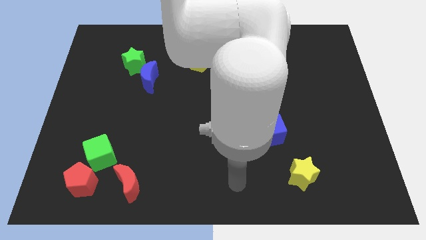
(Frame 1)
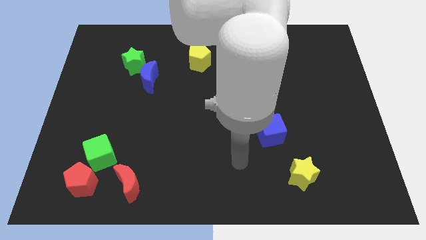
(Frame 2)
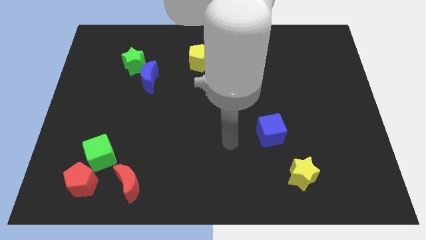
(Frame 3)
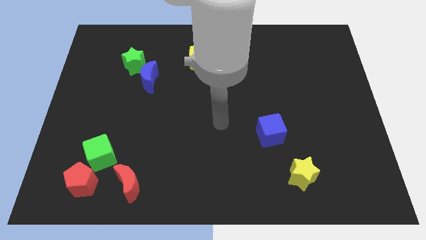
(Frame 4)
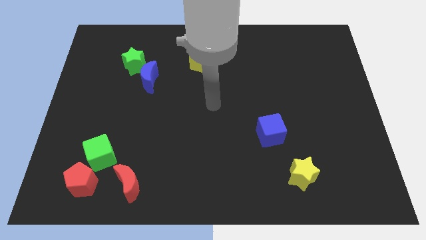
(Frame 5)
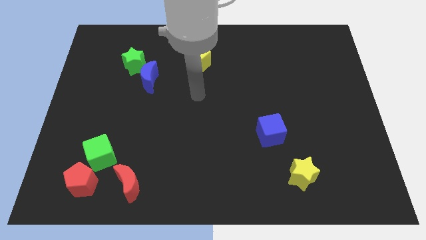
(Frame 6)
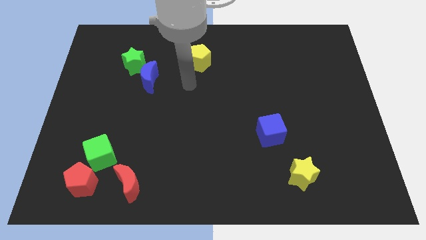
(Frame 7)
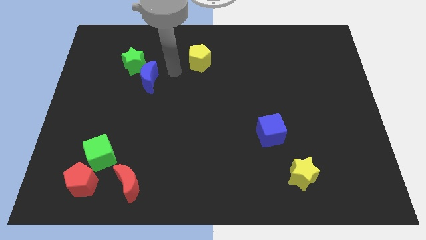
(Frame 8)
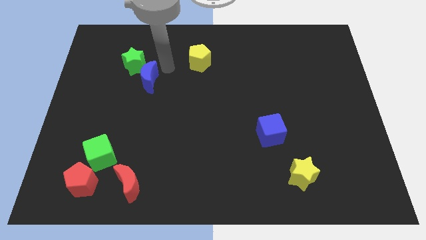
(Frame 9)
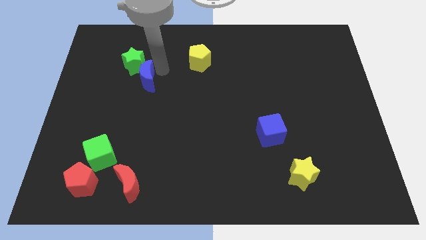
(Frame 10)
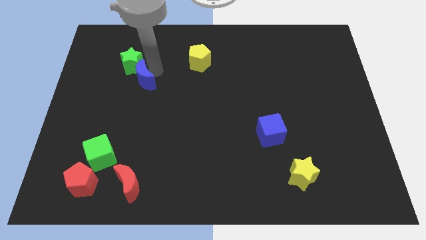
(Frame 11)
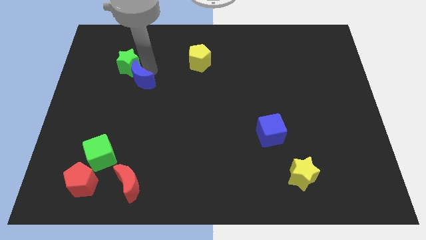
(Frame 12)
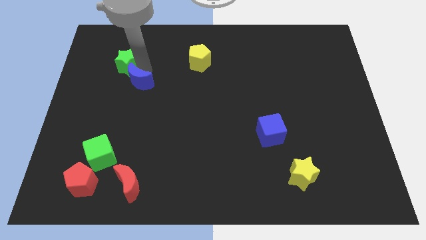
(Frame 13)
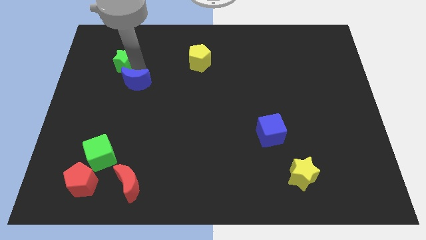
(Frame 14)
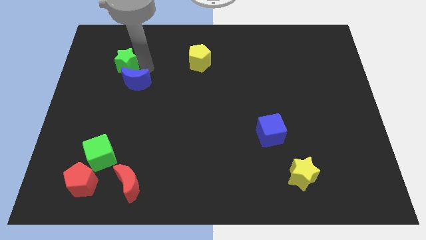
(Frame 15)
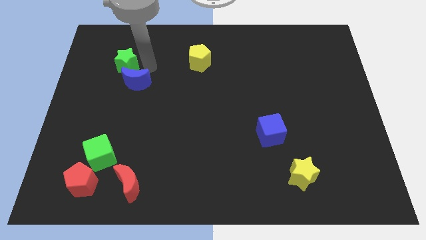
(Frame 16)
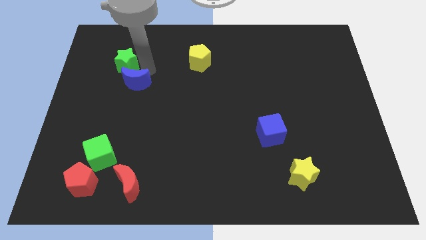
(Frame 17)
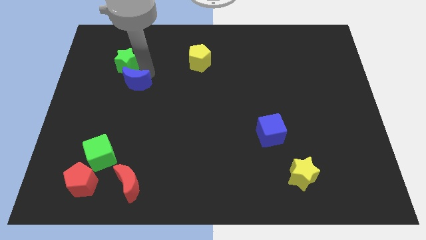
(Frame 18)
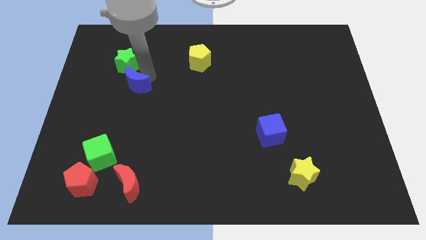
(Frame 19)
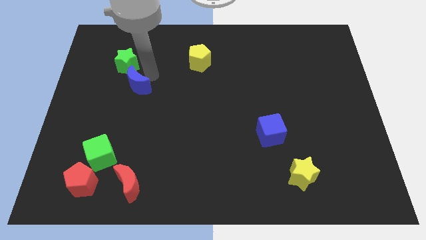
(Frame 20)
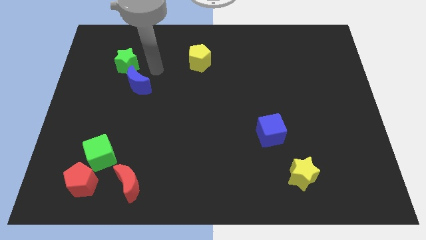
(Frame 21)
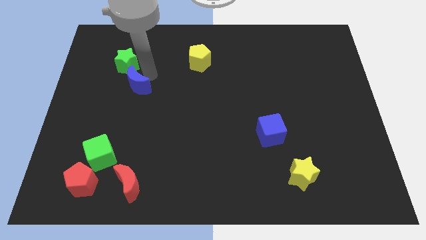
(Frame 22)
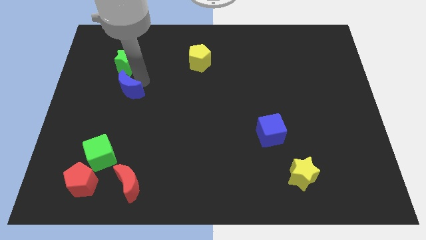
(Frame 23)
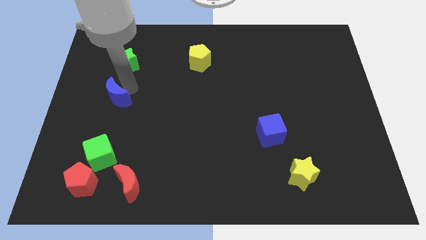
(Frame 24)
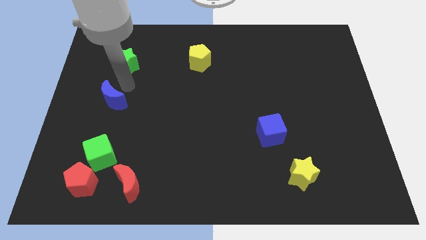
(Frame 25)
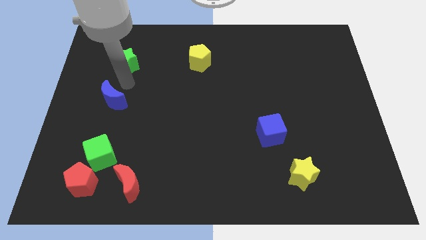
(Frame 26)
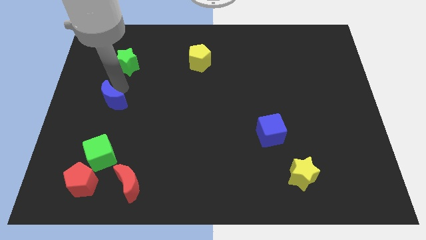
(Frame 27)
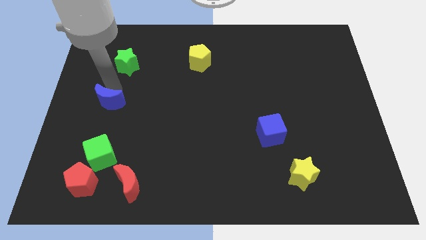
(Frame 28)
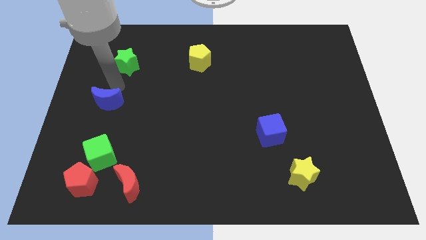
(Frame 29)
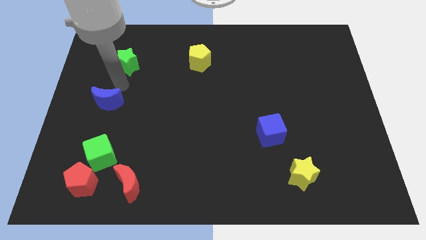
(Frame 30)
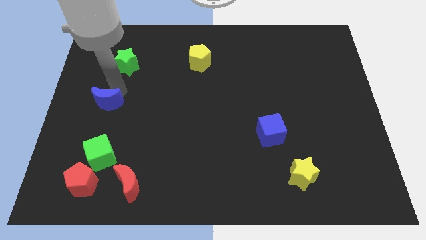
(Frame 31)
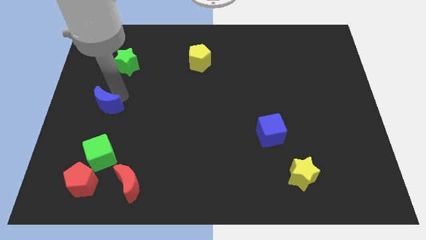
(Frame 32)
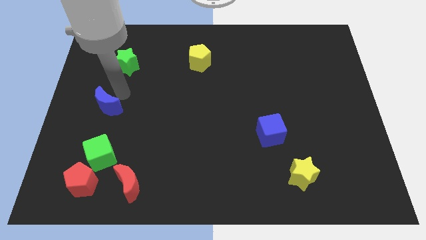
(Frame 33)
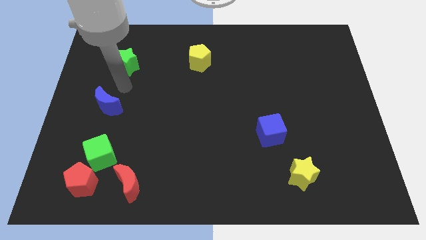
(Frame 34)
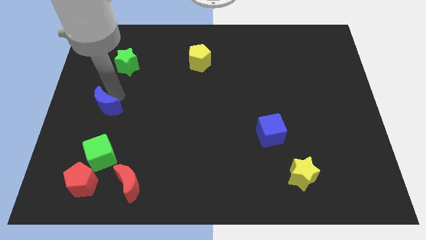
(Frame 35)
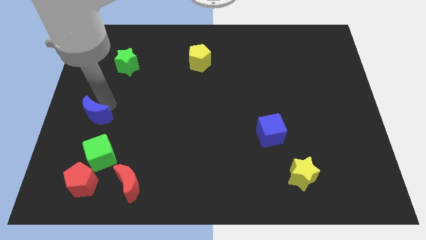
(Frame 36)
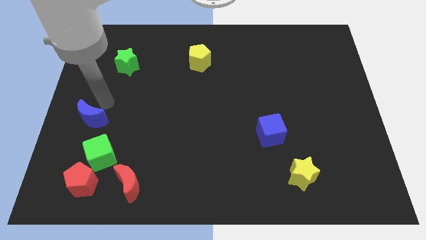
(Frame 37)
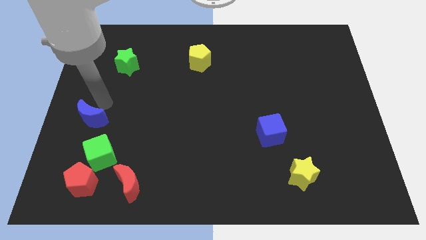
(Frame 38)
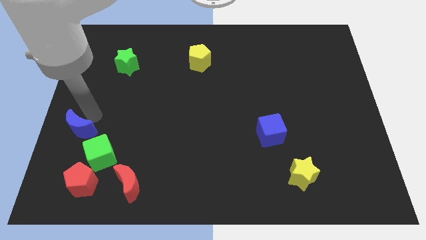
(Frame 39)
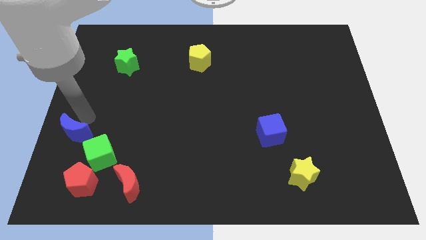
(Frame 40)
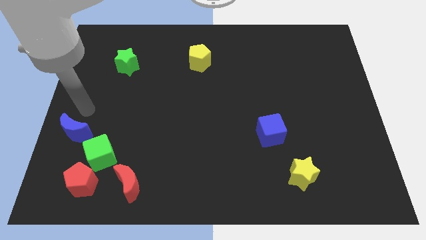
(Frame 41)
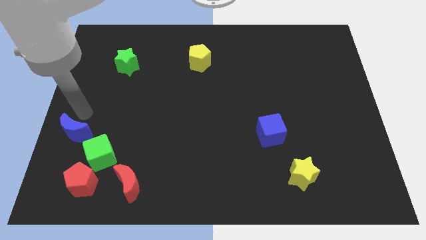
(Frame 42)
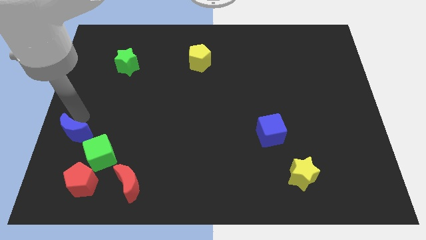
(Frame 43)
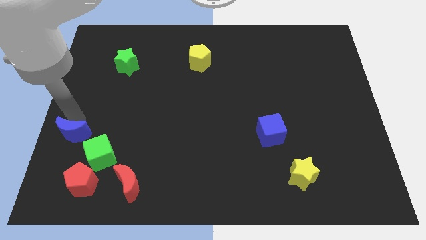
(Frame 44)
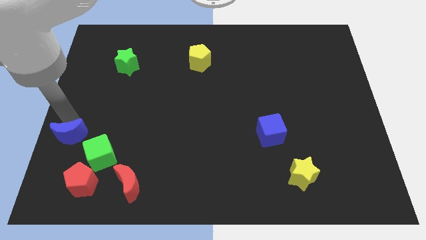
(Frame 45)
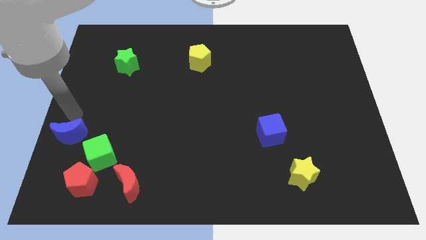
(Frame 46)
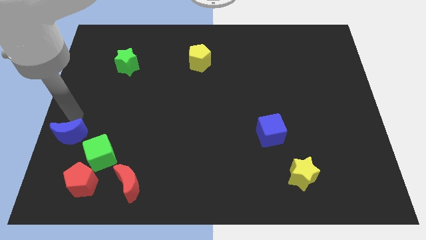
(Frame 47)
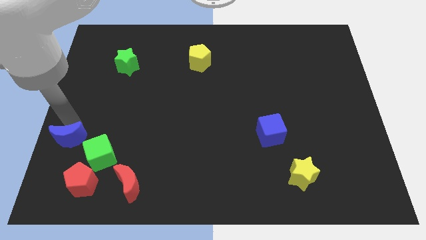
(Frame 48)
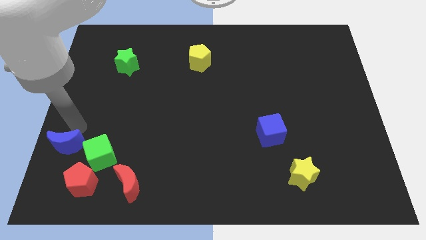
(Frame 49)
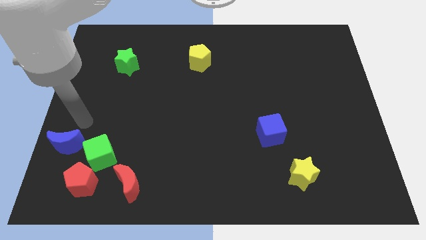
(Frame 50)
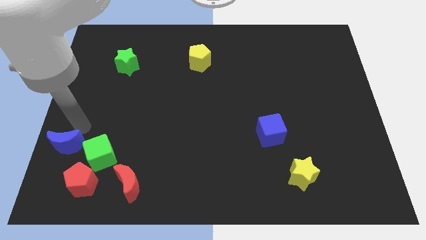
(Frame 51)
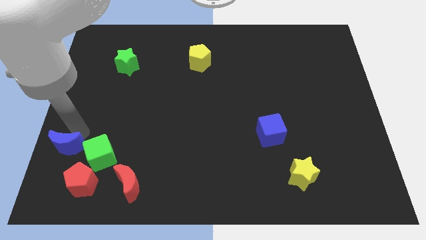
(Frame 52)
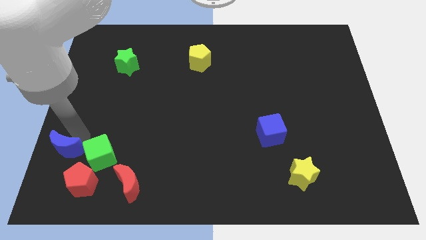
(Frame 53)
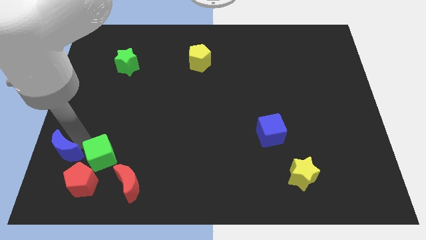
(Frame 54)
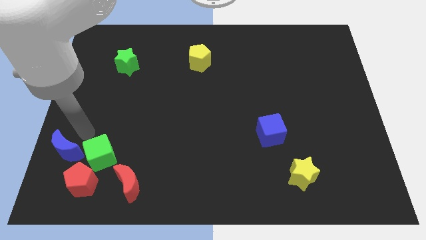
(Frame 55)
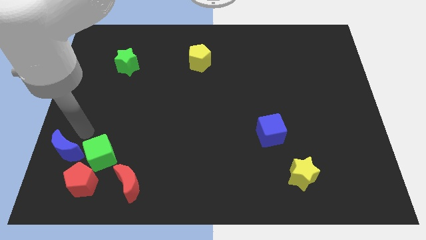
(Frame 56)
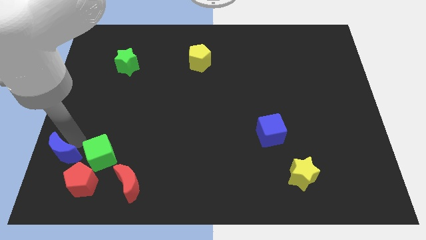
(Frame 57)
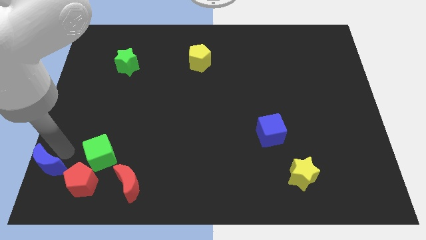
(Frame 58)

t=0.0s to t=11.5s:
push the blue moon to the bottom left corner

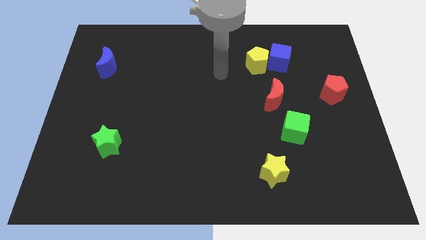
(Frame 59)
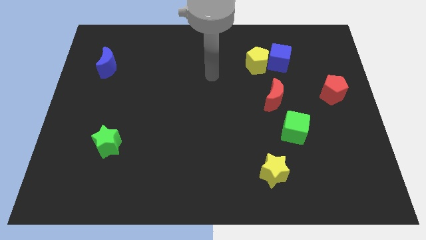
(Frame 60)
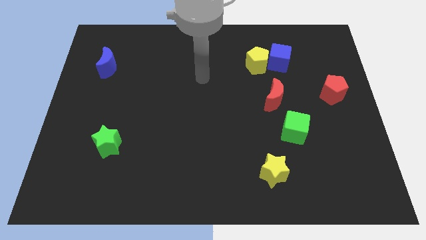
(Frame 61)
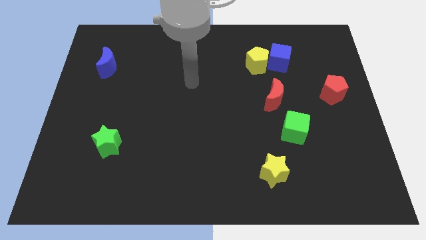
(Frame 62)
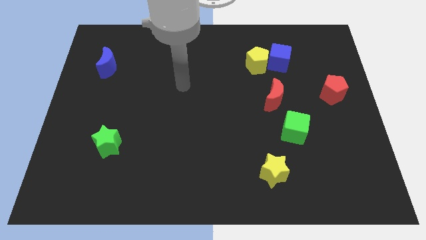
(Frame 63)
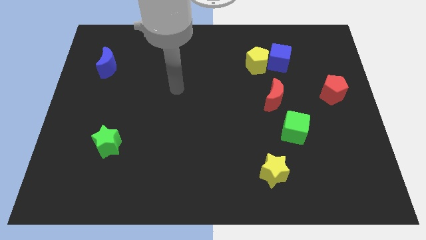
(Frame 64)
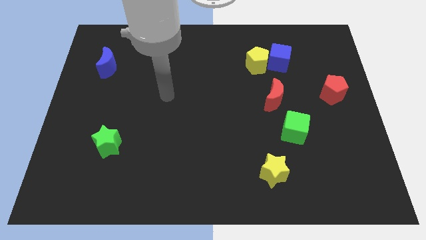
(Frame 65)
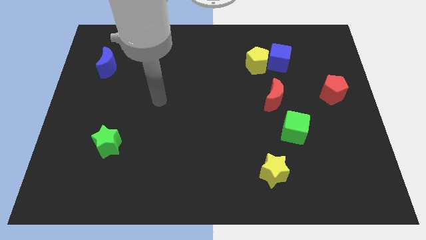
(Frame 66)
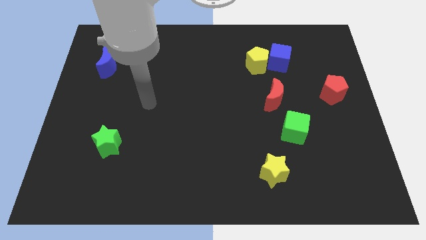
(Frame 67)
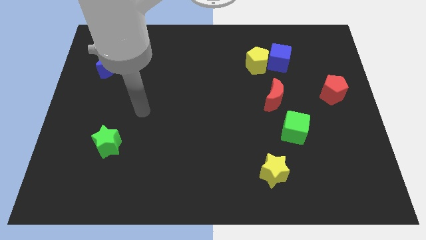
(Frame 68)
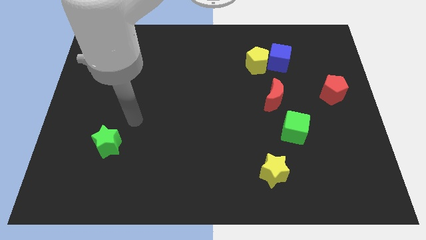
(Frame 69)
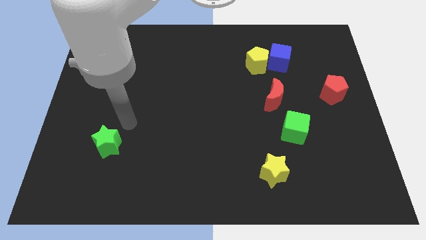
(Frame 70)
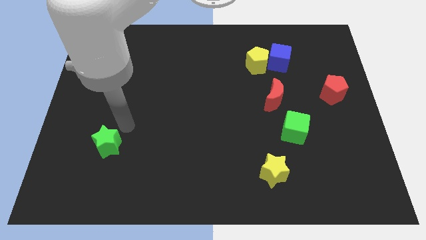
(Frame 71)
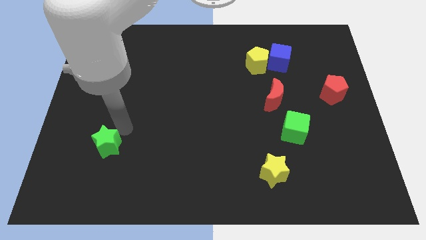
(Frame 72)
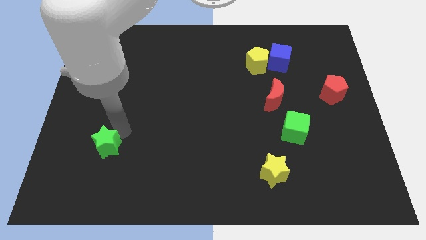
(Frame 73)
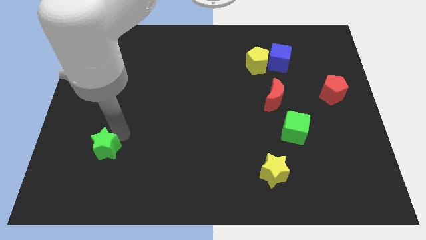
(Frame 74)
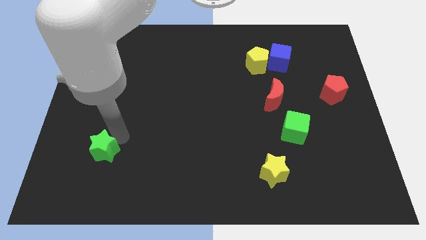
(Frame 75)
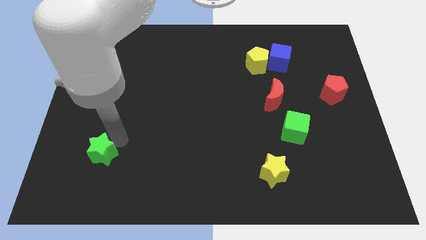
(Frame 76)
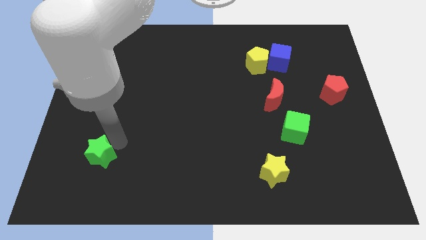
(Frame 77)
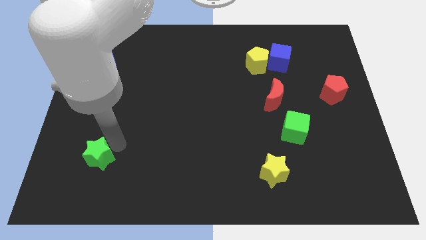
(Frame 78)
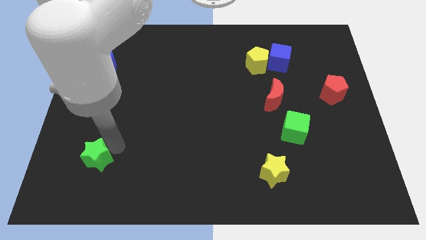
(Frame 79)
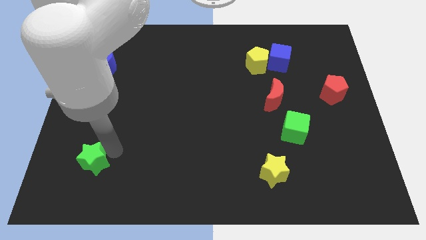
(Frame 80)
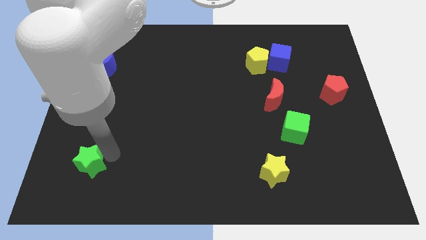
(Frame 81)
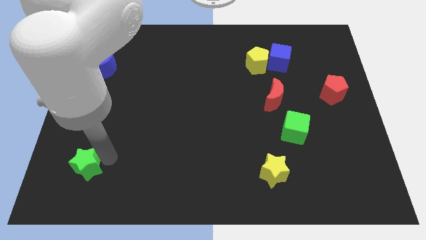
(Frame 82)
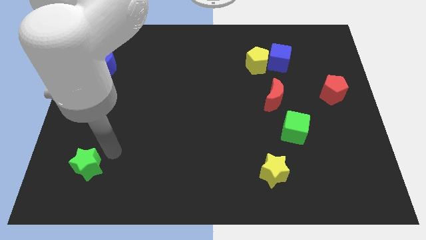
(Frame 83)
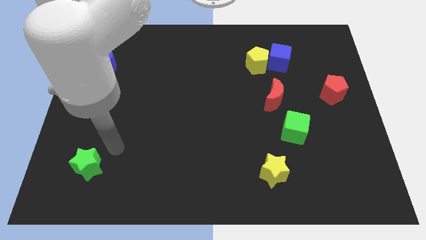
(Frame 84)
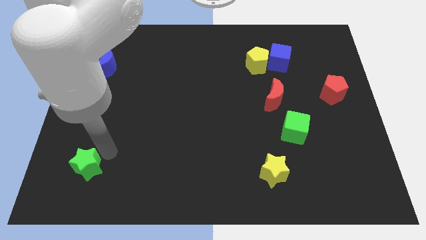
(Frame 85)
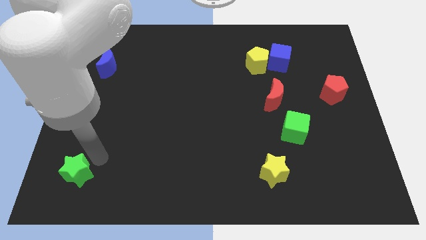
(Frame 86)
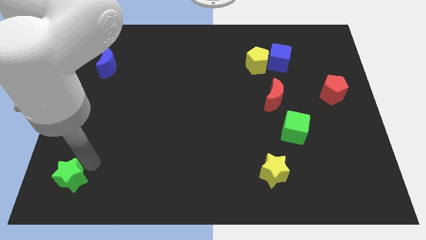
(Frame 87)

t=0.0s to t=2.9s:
slide the green star to the lower left corner
